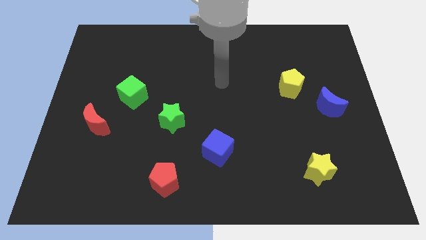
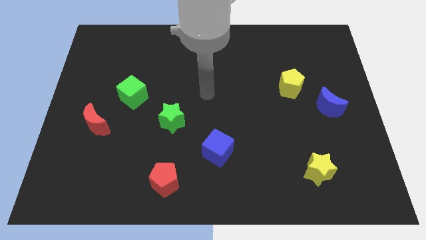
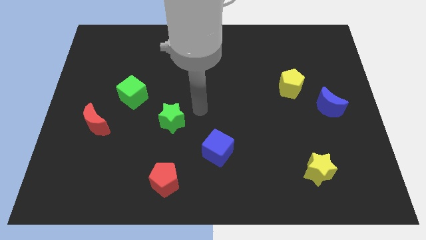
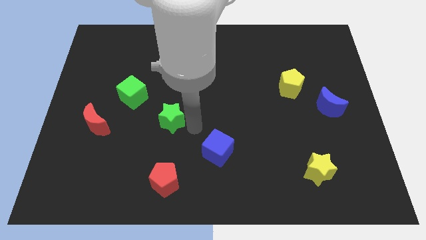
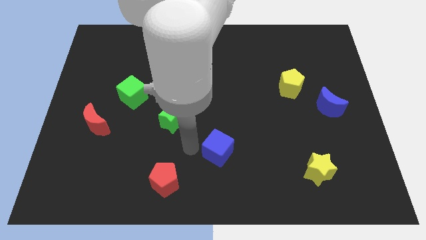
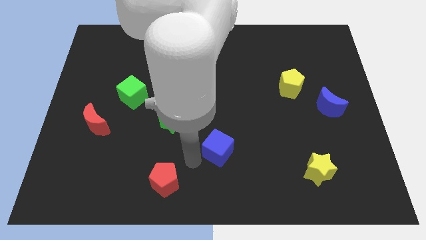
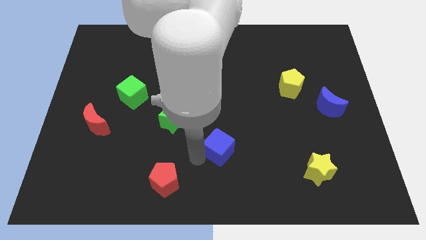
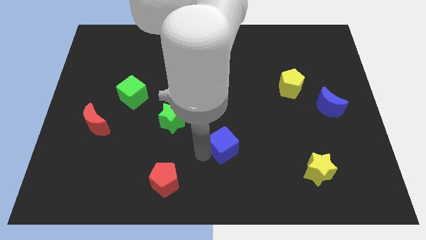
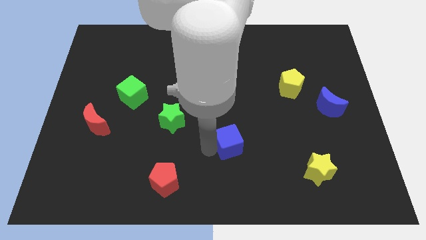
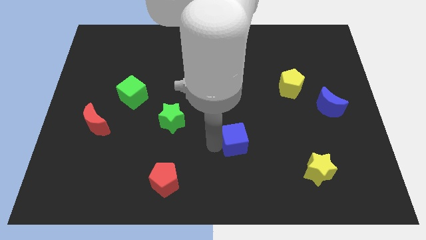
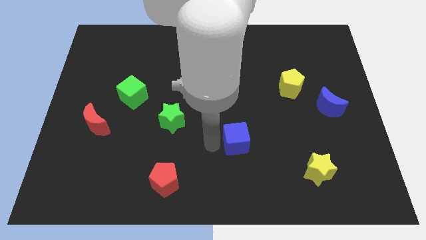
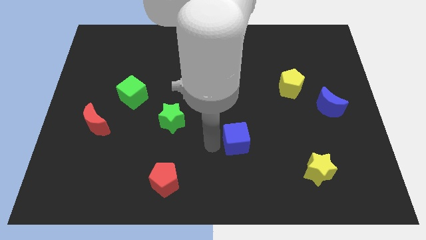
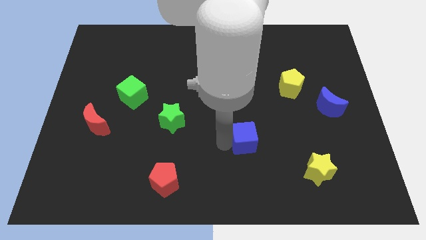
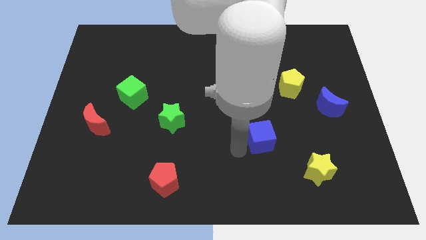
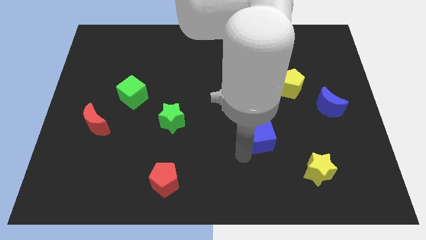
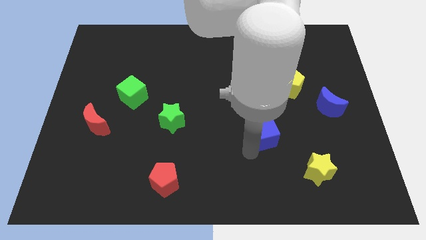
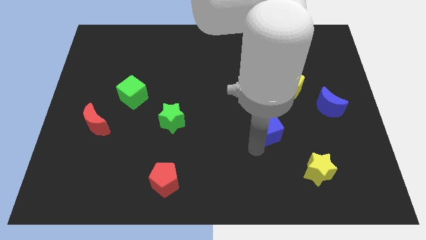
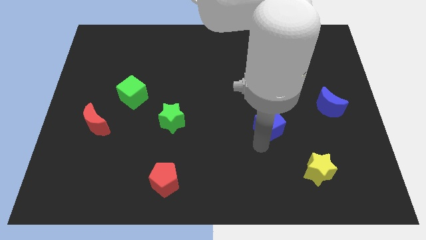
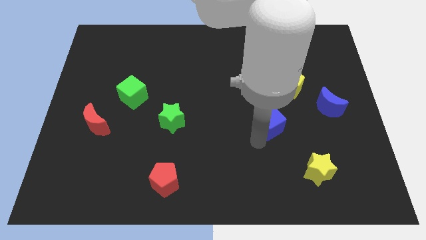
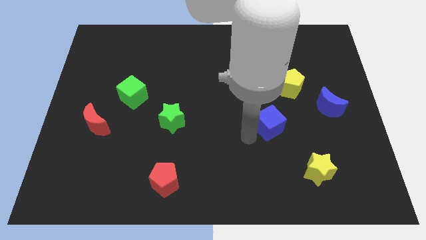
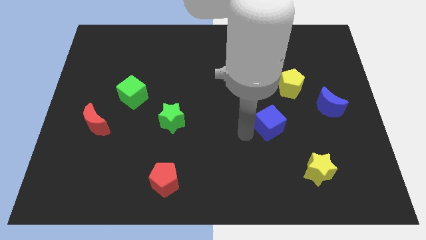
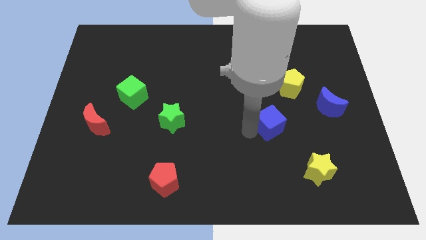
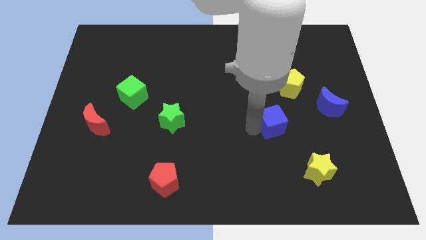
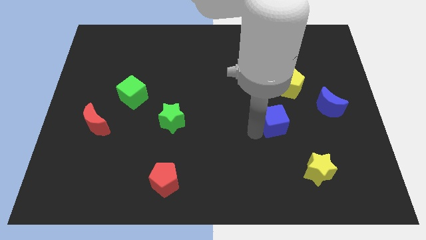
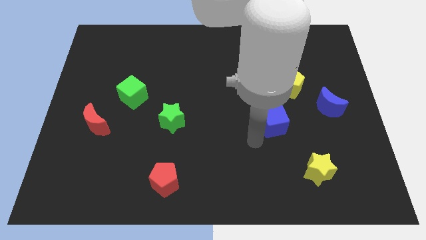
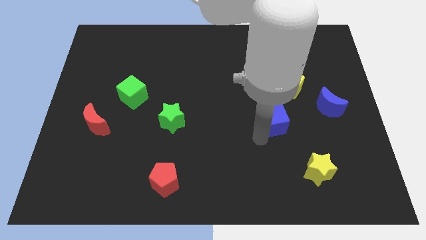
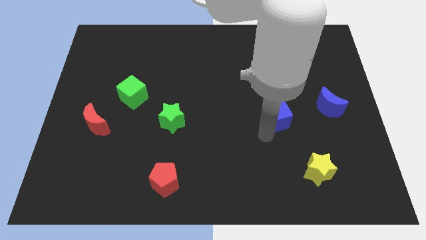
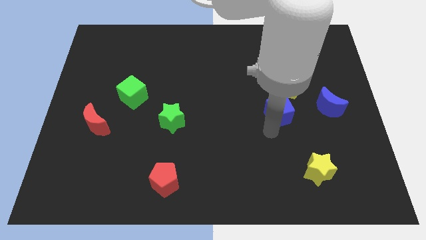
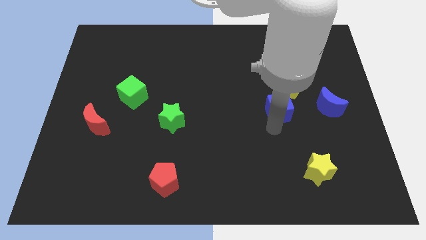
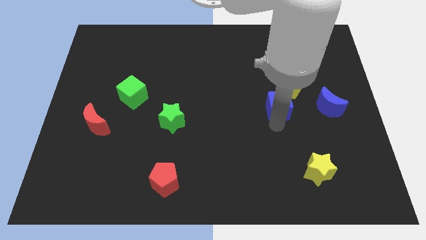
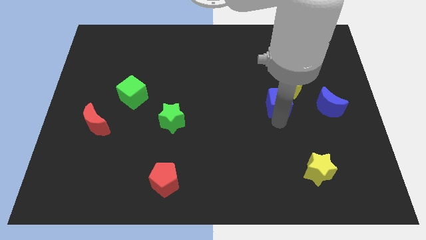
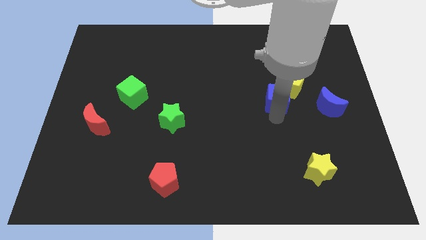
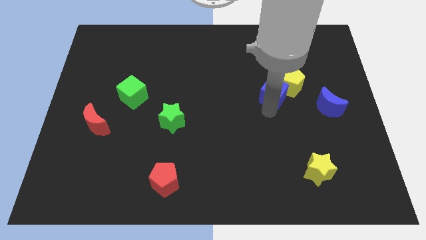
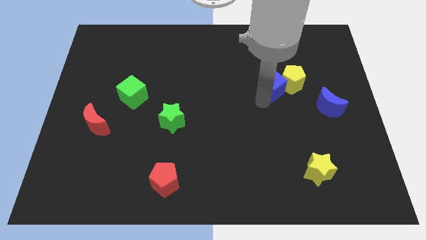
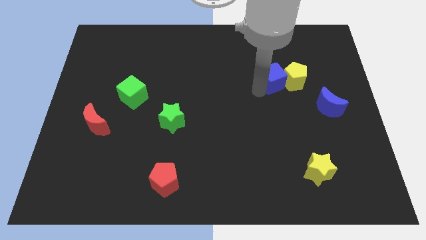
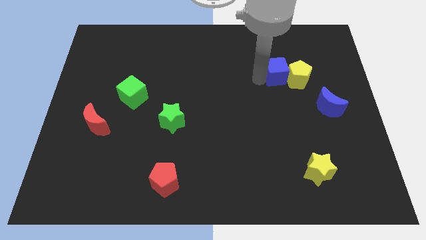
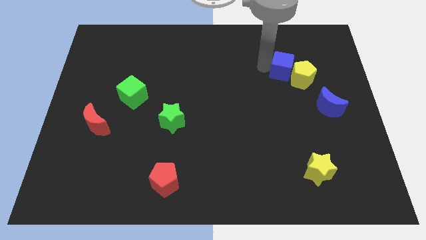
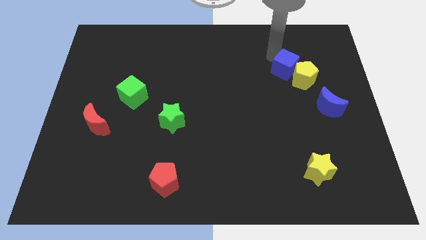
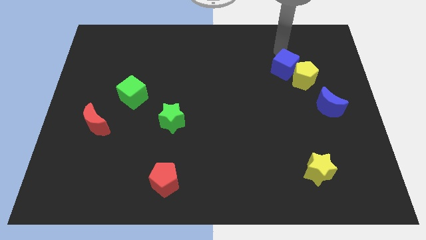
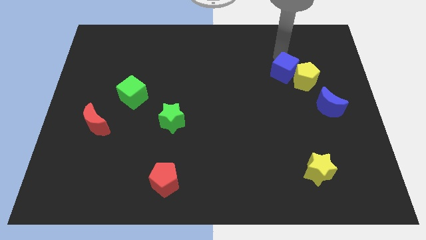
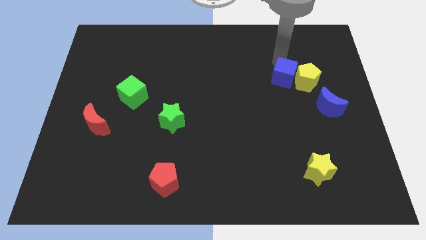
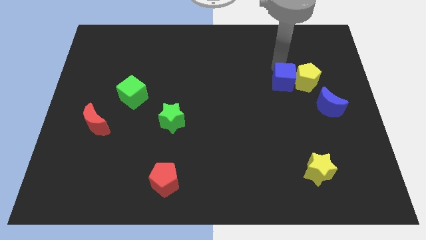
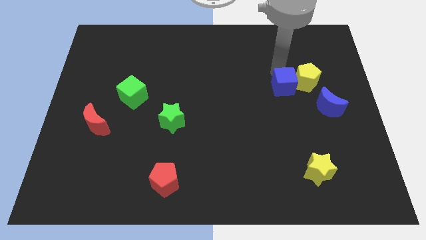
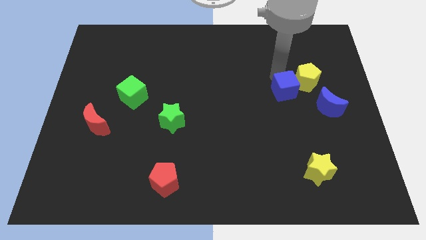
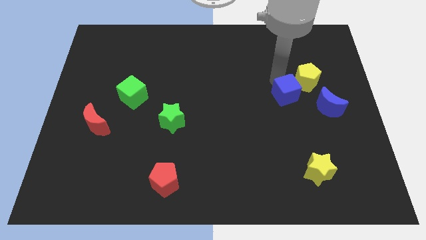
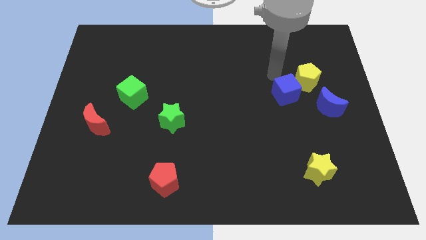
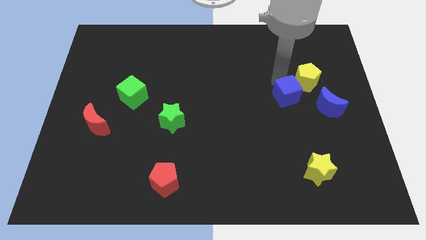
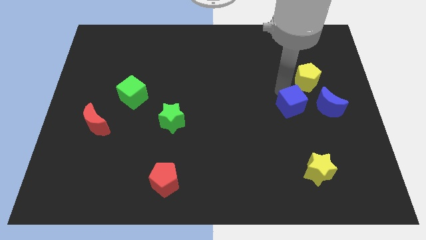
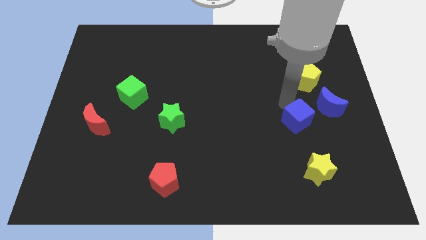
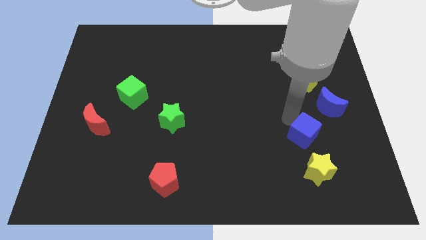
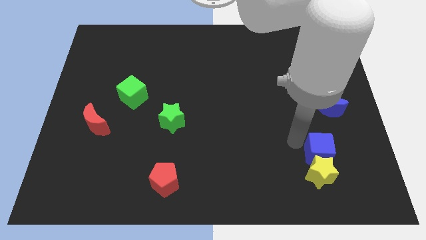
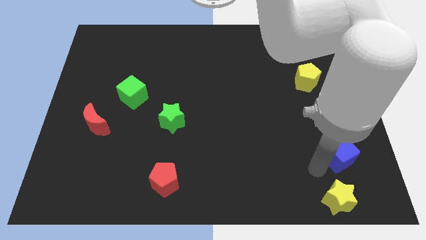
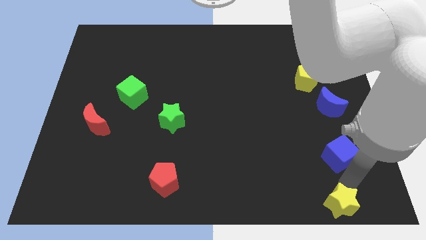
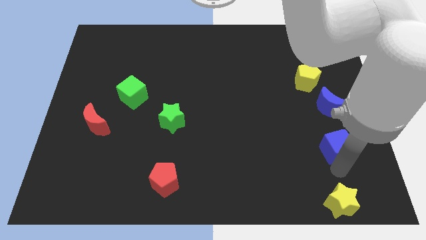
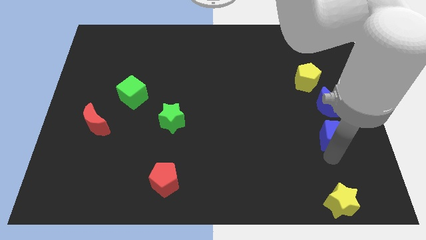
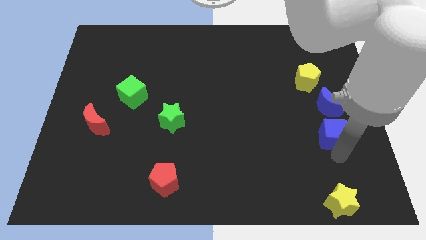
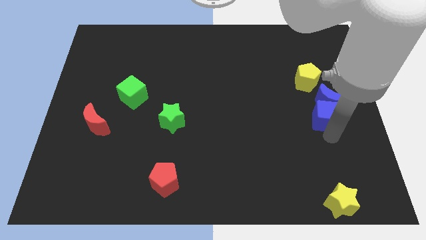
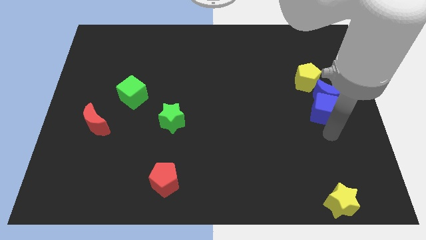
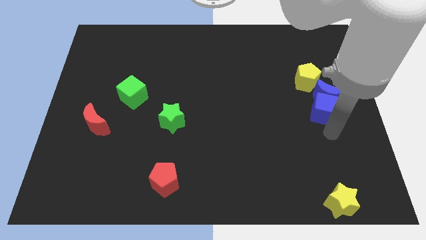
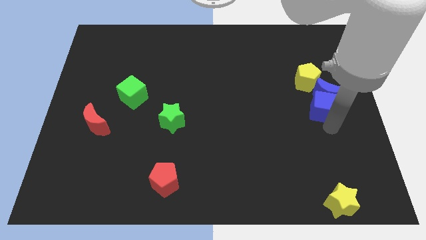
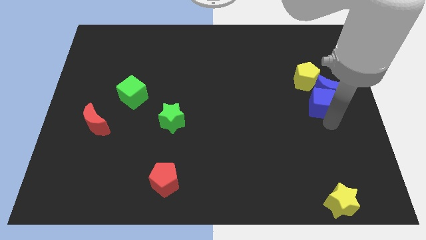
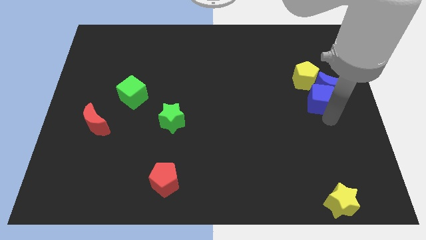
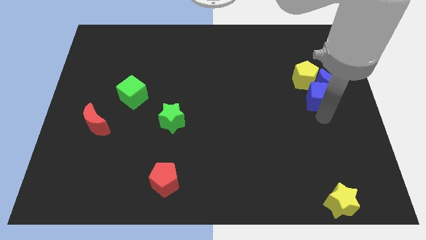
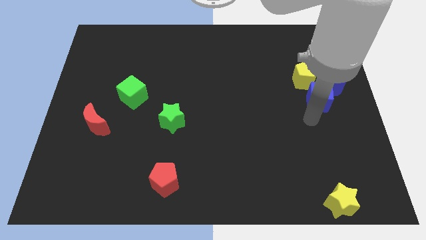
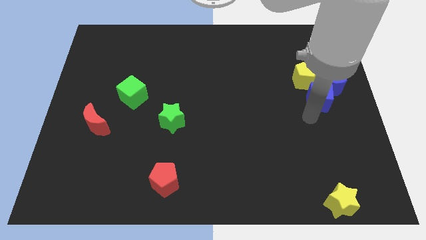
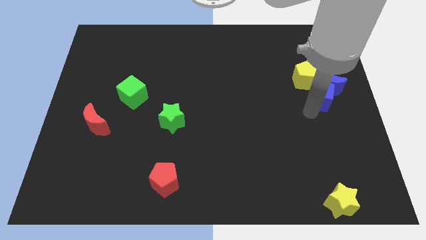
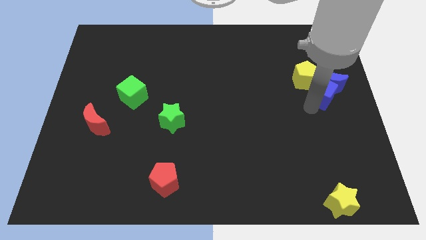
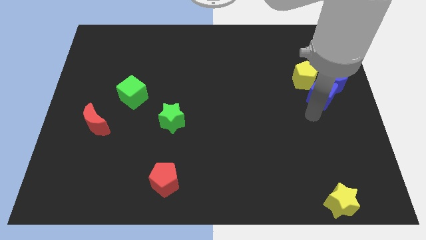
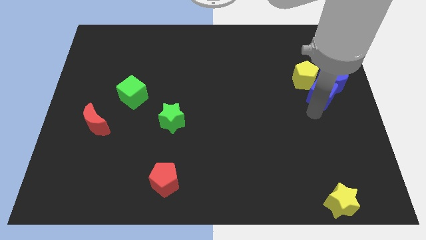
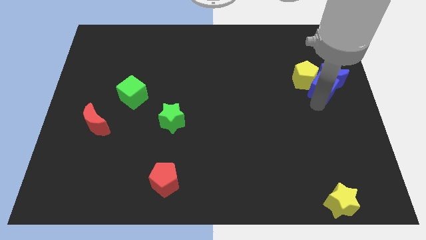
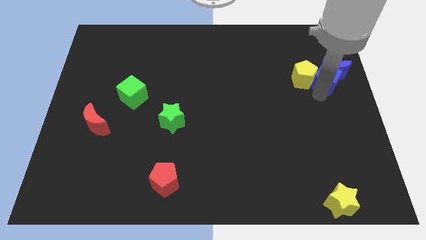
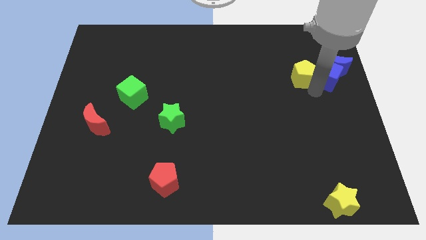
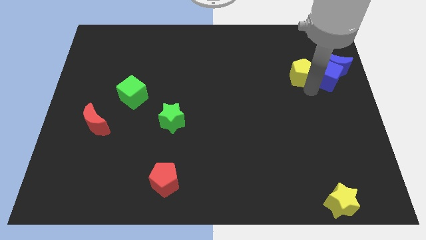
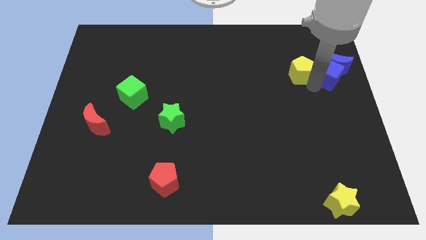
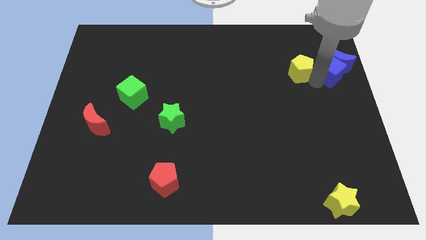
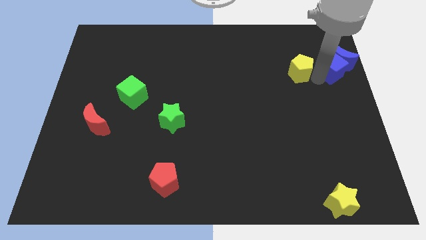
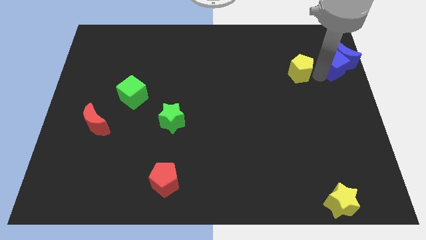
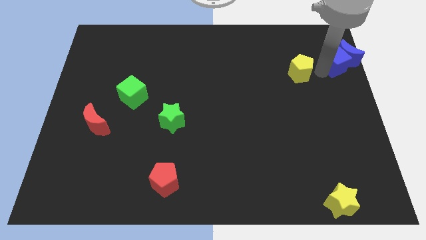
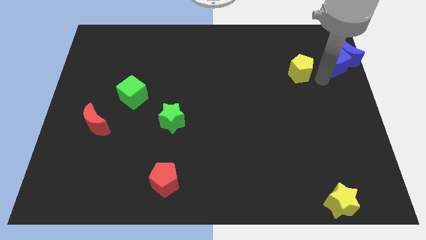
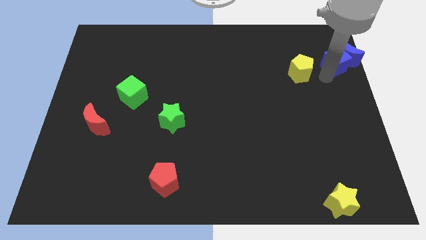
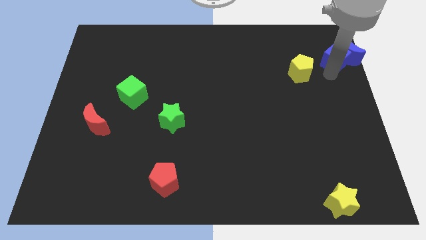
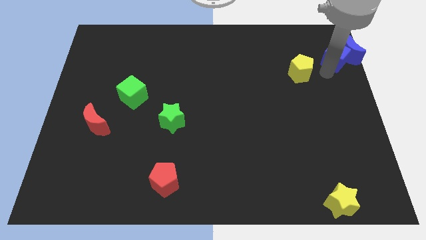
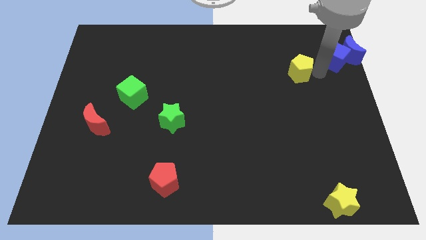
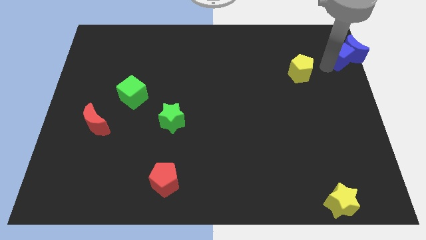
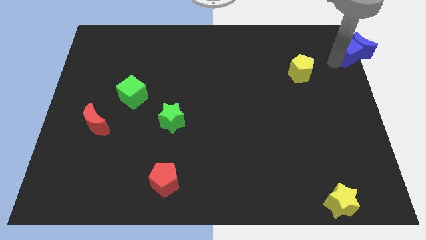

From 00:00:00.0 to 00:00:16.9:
push the blue cube to the top right
